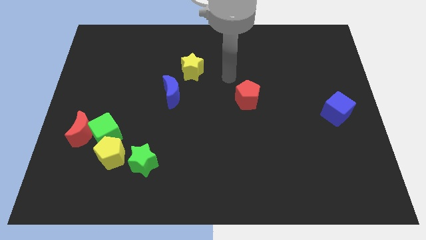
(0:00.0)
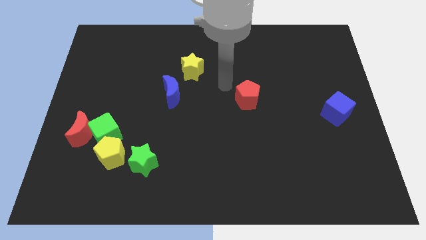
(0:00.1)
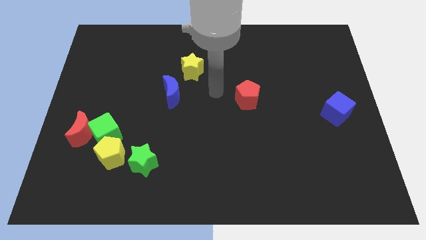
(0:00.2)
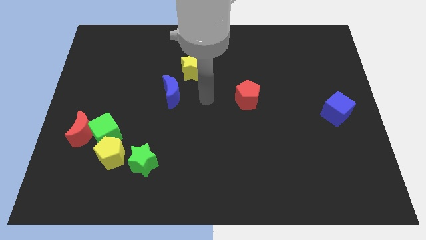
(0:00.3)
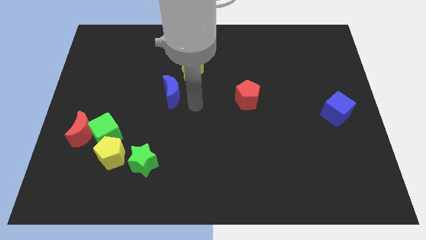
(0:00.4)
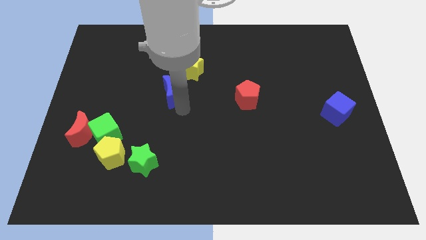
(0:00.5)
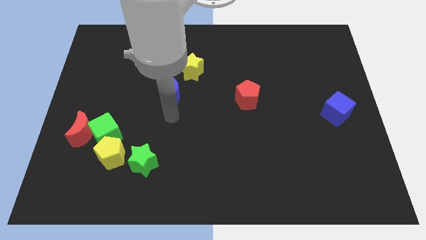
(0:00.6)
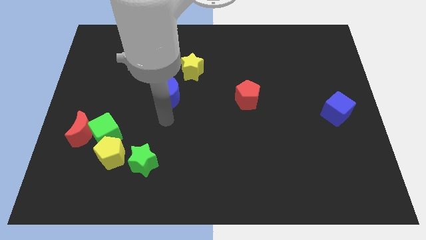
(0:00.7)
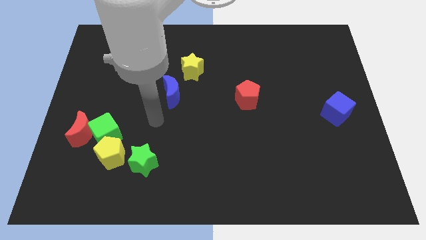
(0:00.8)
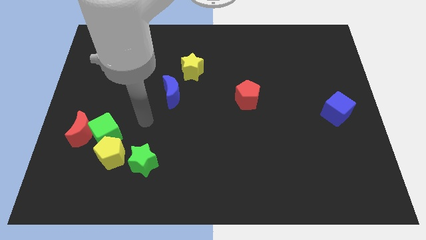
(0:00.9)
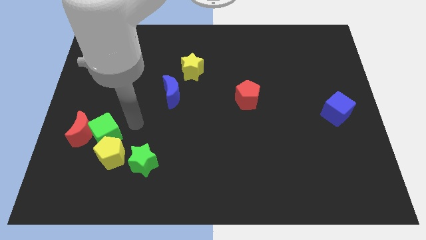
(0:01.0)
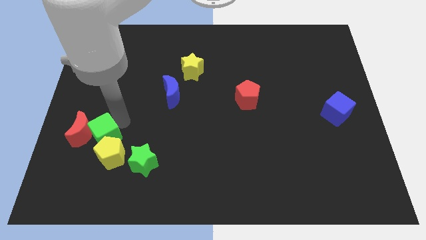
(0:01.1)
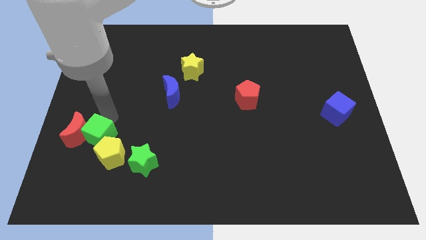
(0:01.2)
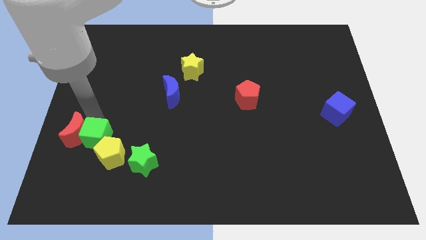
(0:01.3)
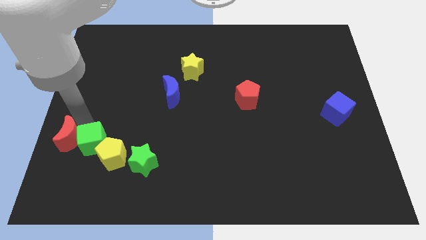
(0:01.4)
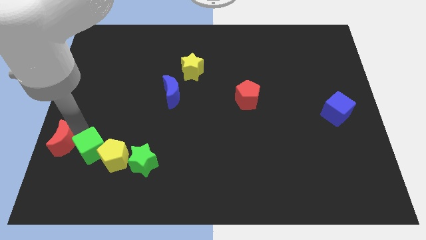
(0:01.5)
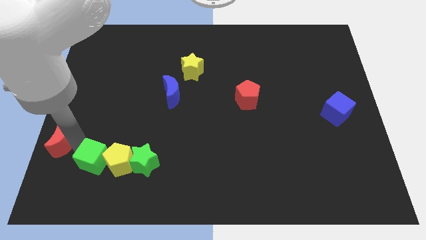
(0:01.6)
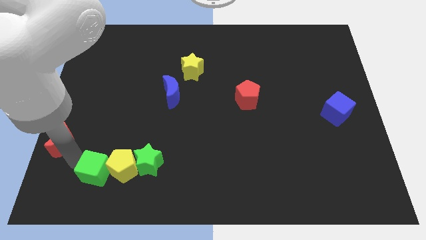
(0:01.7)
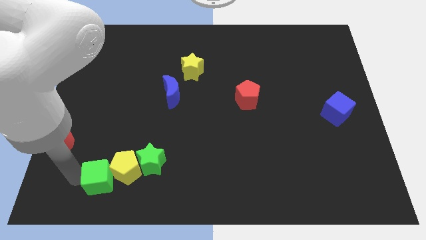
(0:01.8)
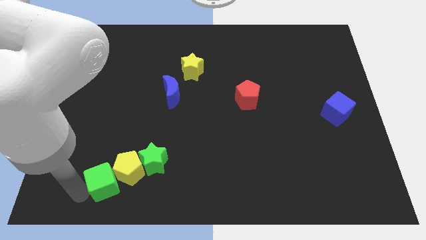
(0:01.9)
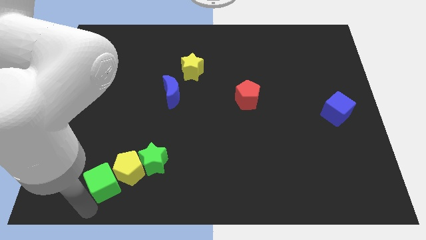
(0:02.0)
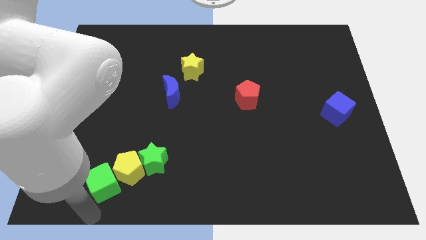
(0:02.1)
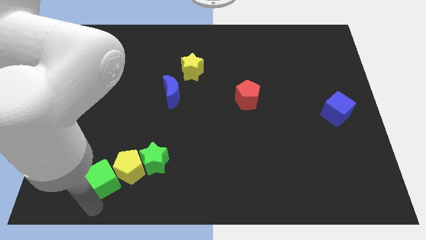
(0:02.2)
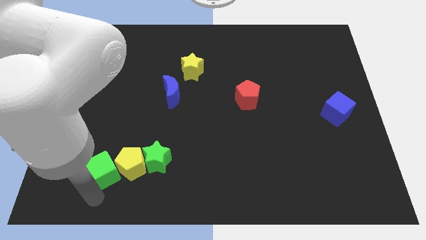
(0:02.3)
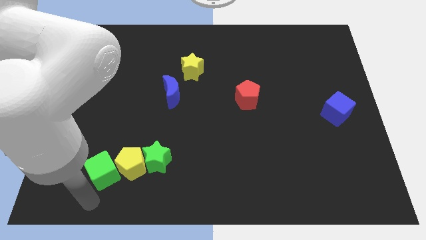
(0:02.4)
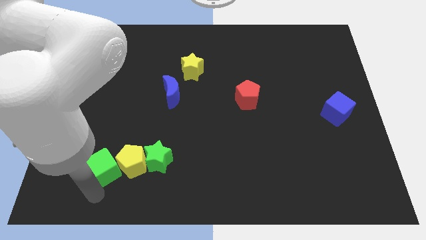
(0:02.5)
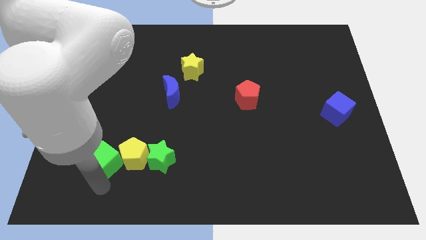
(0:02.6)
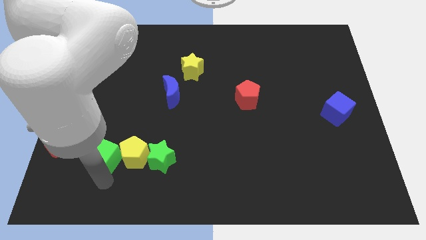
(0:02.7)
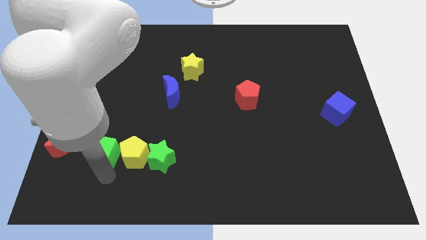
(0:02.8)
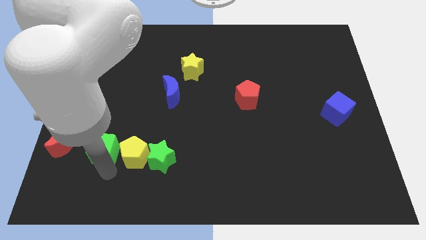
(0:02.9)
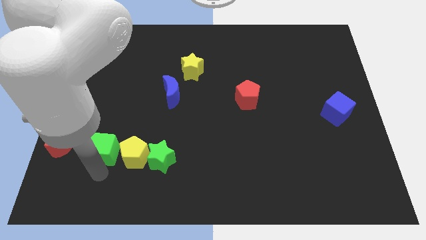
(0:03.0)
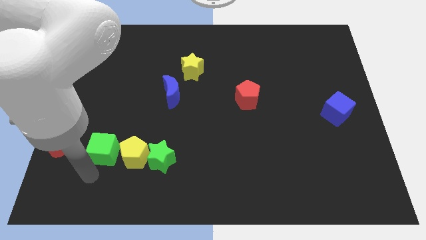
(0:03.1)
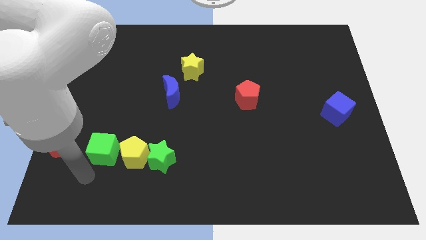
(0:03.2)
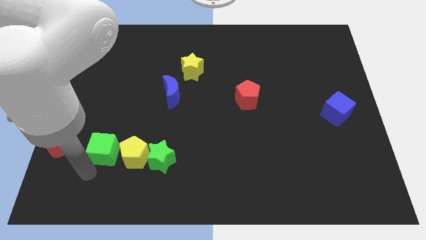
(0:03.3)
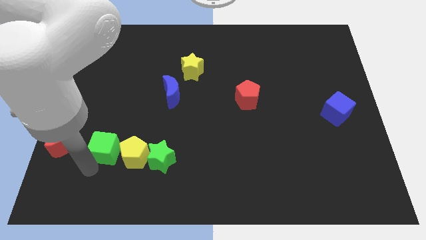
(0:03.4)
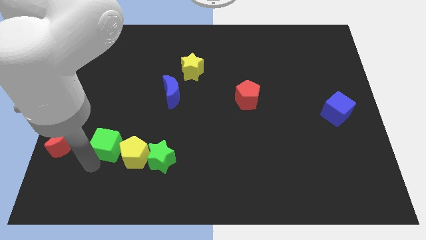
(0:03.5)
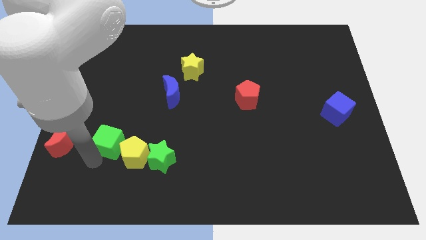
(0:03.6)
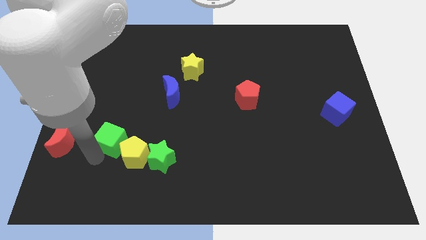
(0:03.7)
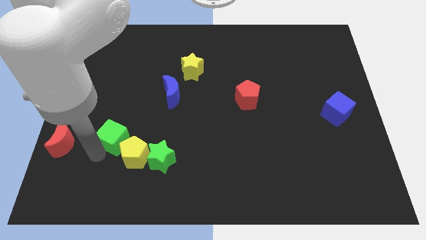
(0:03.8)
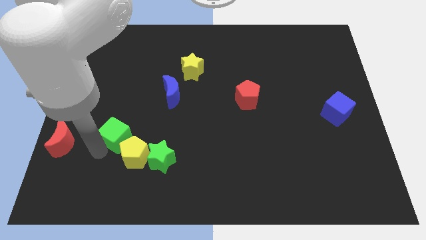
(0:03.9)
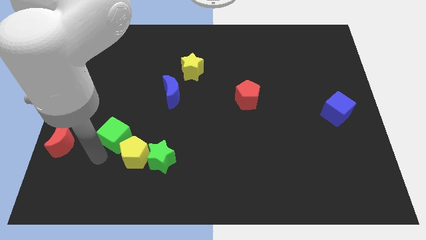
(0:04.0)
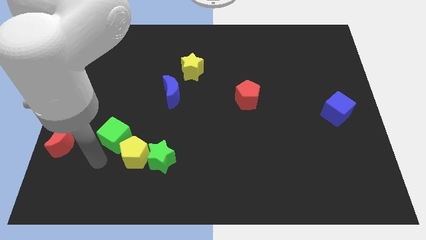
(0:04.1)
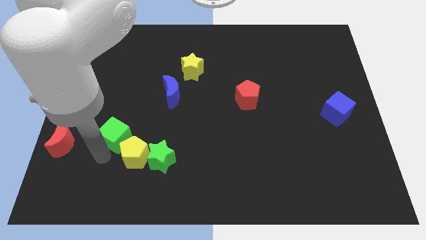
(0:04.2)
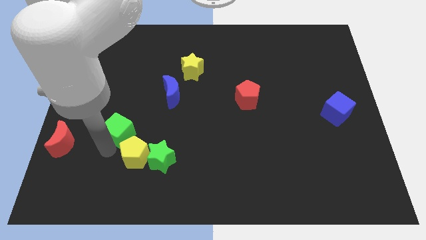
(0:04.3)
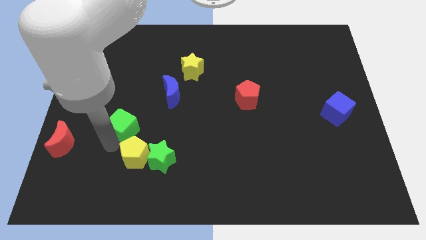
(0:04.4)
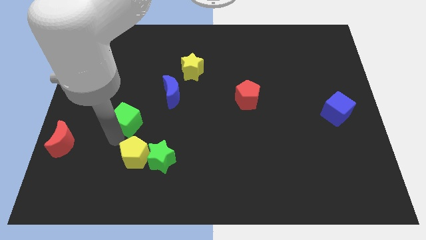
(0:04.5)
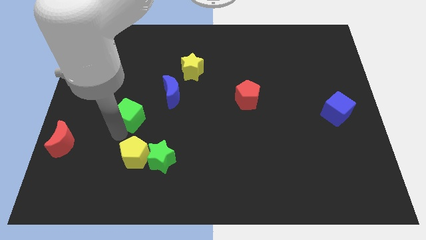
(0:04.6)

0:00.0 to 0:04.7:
pull the green cube apart from the red moon and yellow pentagon

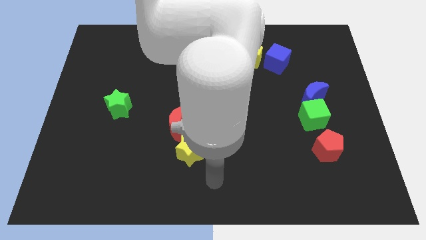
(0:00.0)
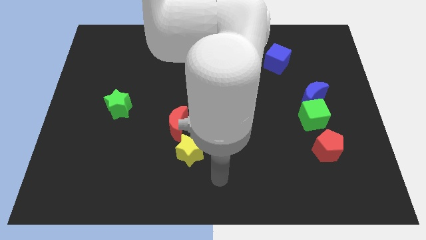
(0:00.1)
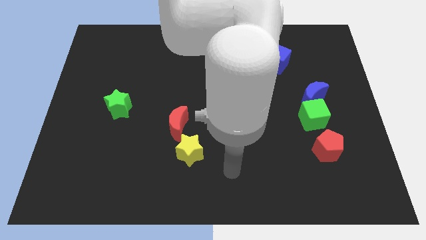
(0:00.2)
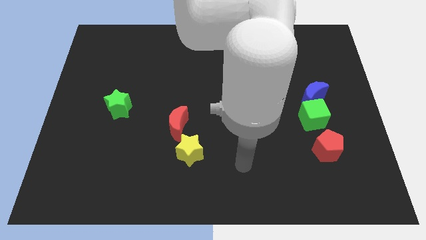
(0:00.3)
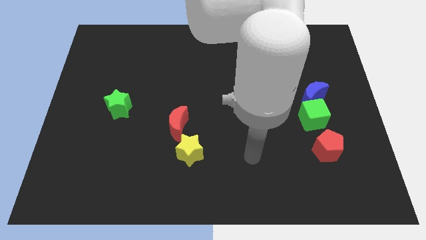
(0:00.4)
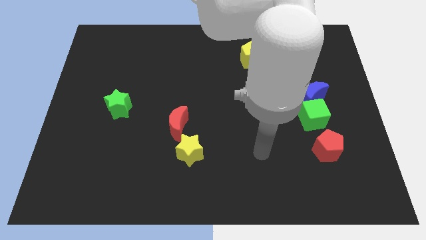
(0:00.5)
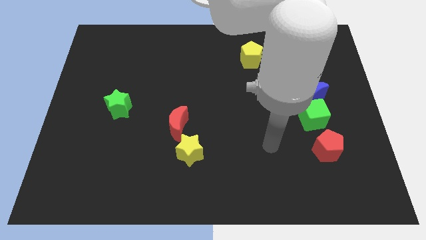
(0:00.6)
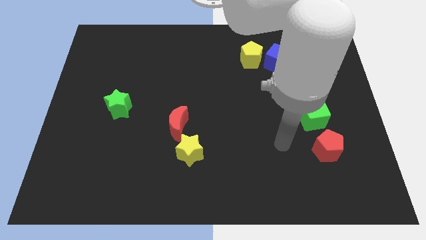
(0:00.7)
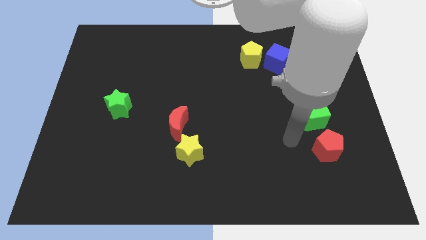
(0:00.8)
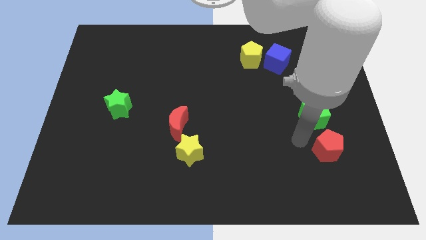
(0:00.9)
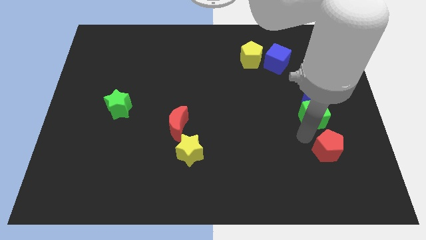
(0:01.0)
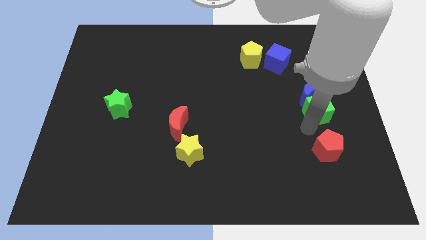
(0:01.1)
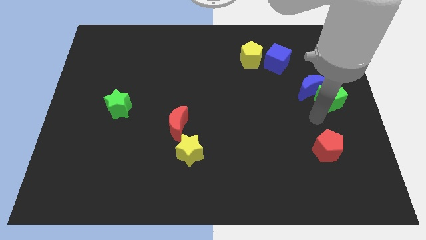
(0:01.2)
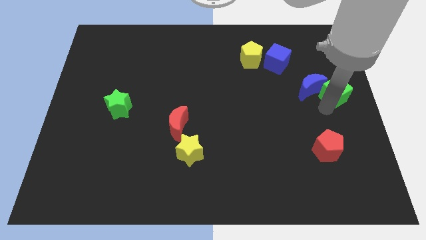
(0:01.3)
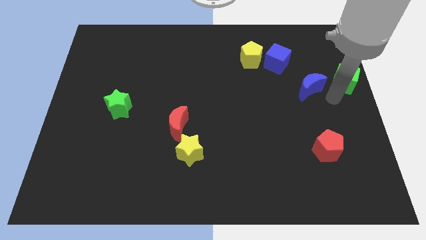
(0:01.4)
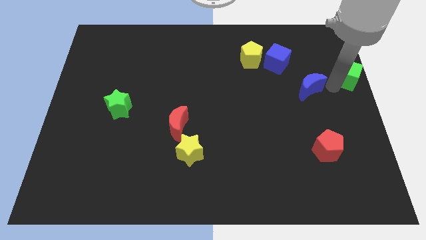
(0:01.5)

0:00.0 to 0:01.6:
move the blue moon away from the green cube

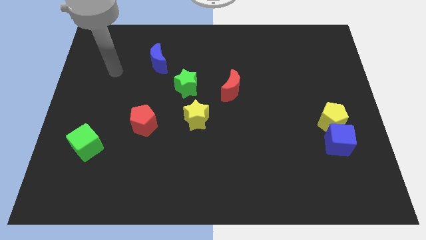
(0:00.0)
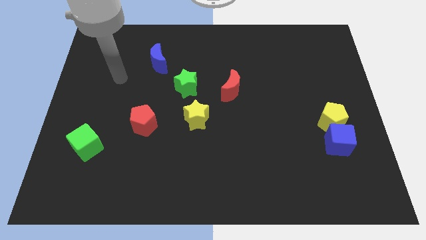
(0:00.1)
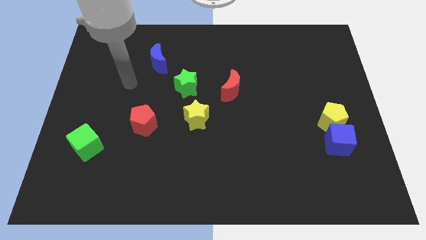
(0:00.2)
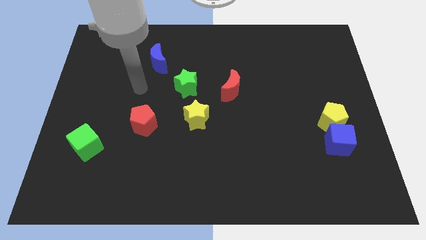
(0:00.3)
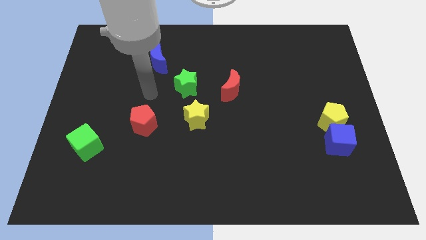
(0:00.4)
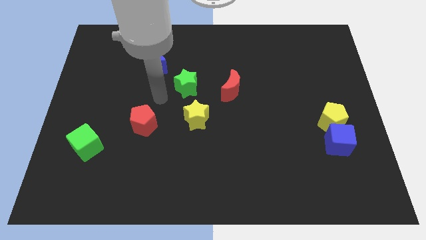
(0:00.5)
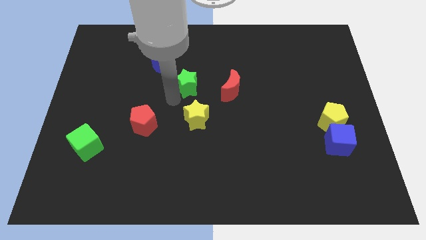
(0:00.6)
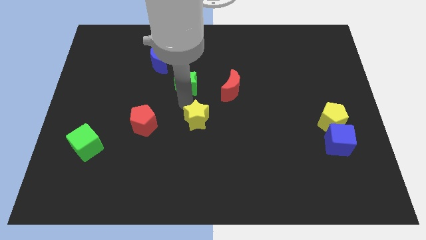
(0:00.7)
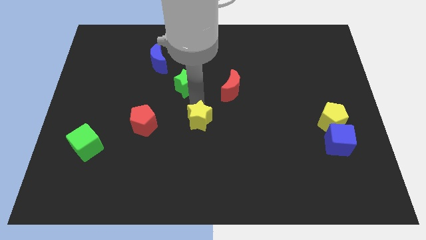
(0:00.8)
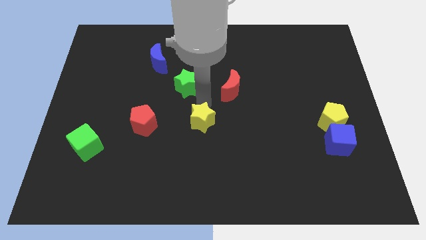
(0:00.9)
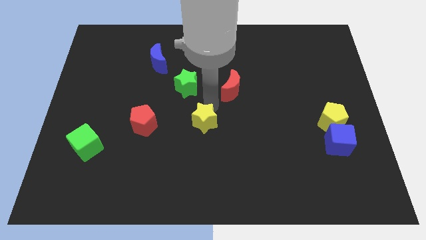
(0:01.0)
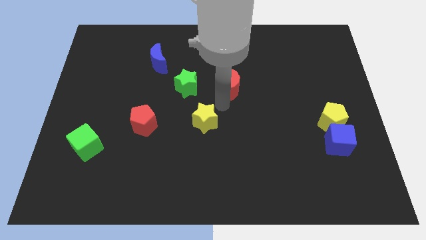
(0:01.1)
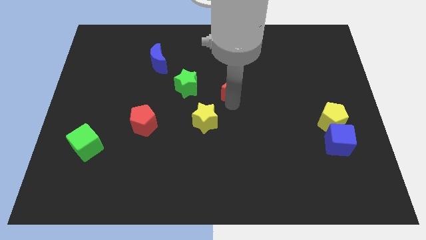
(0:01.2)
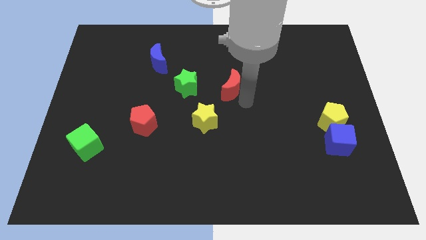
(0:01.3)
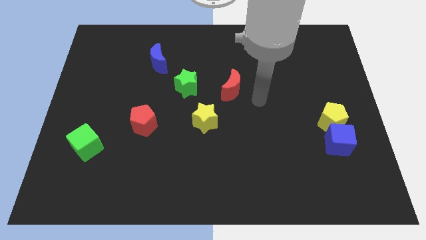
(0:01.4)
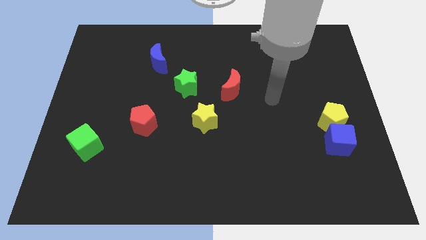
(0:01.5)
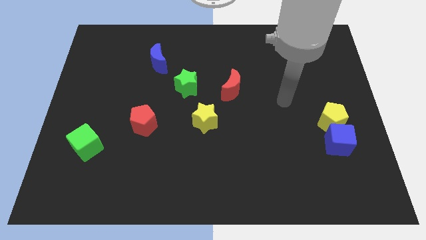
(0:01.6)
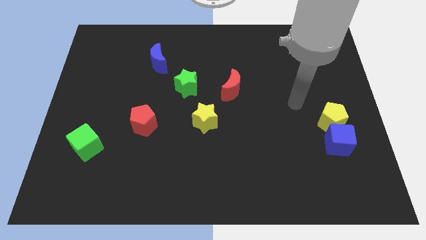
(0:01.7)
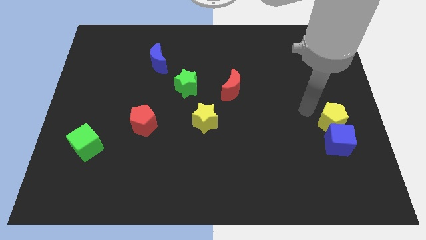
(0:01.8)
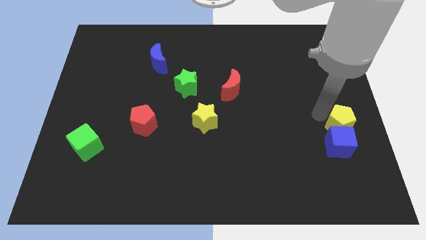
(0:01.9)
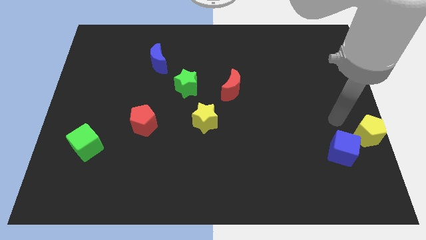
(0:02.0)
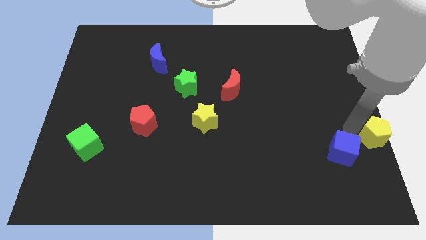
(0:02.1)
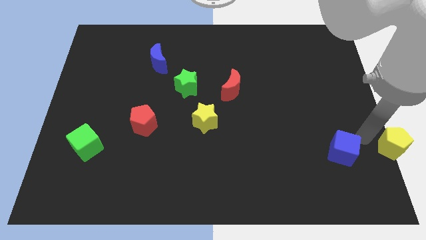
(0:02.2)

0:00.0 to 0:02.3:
pull the blue cube apart from the yellow pentagon

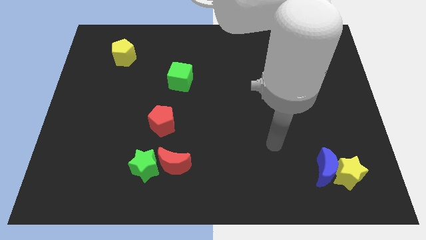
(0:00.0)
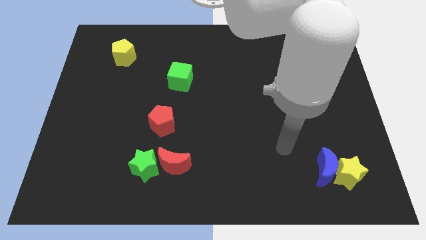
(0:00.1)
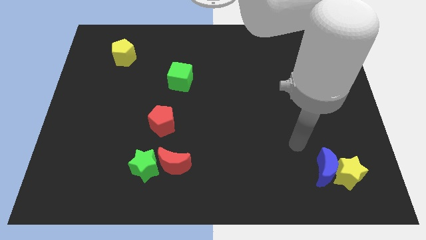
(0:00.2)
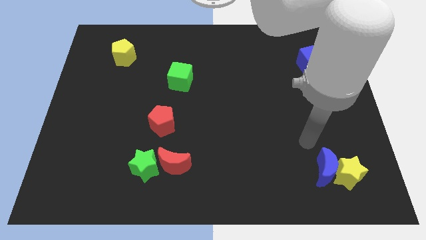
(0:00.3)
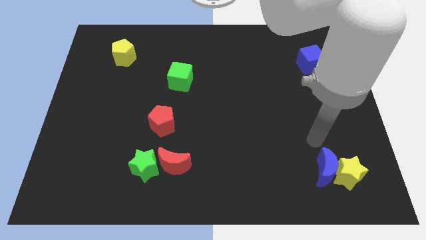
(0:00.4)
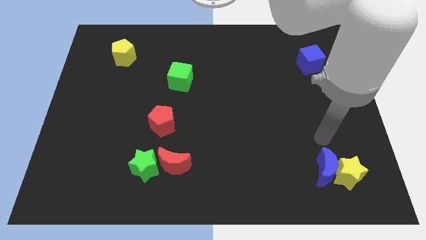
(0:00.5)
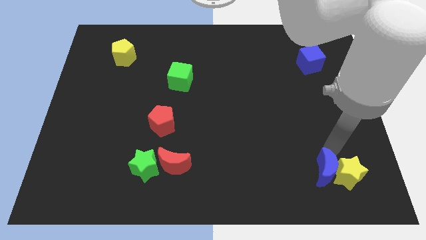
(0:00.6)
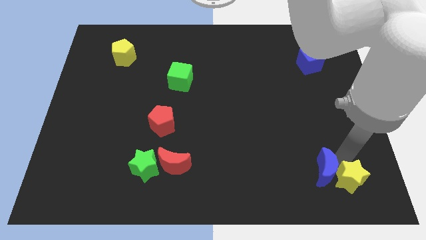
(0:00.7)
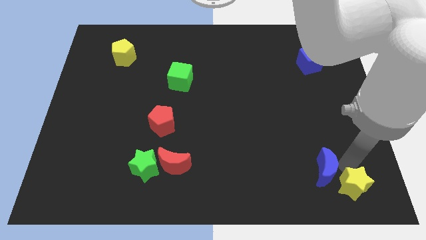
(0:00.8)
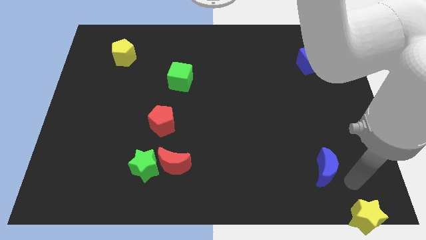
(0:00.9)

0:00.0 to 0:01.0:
separate the blue moon from the yellow star
